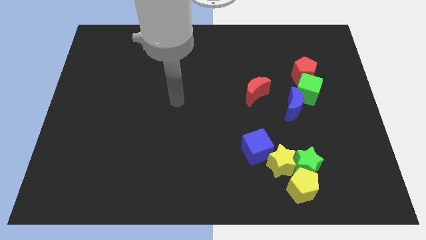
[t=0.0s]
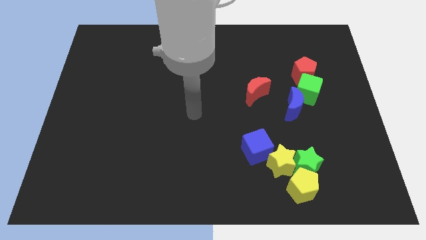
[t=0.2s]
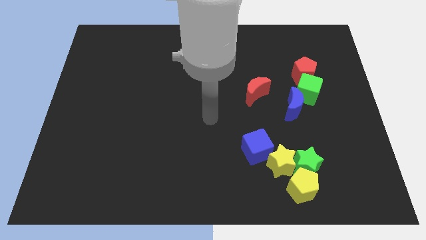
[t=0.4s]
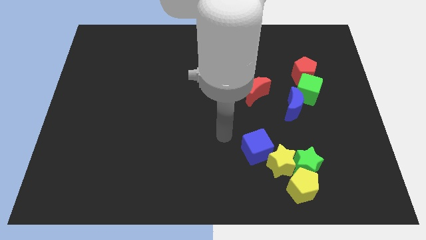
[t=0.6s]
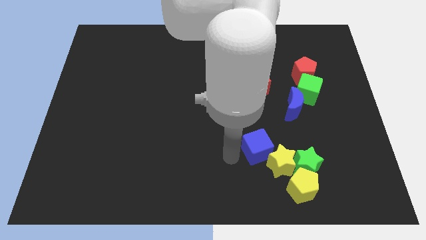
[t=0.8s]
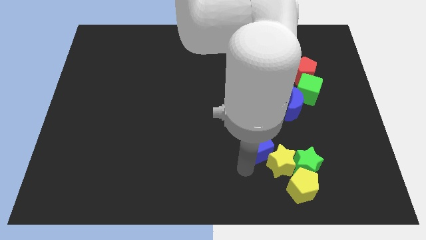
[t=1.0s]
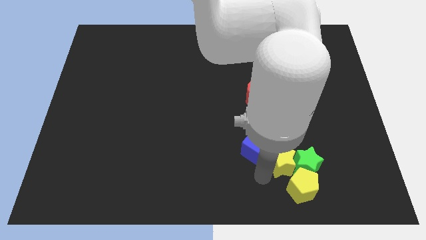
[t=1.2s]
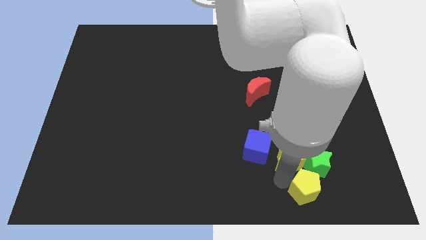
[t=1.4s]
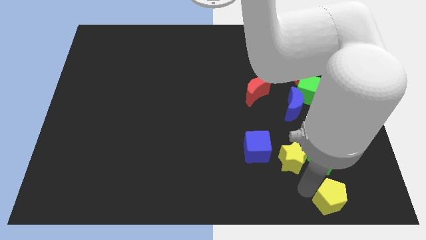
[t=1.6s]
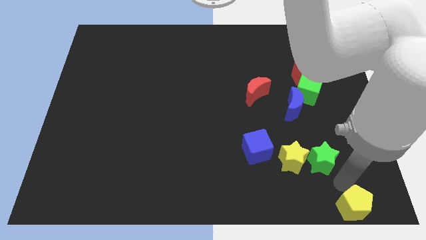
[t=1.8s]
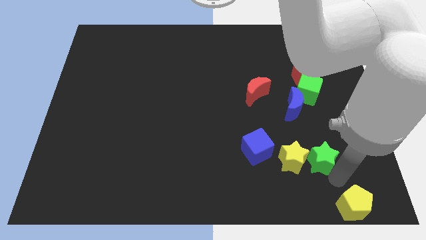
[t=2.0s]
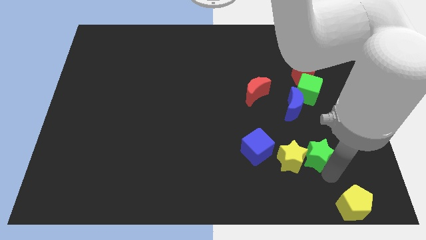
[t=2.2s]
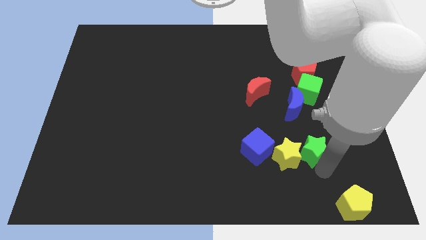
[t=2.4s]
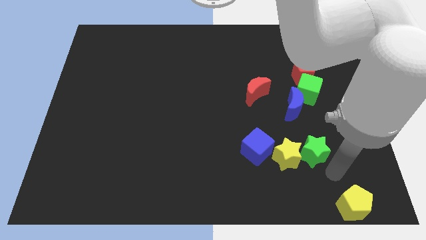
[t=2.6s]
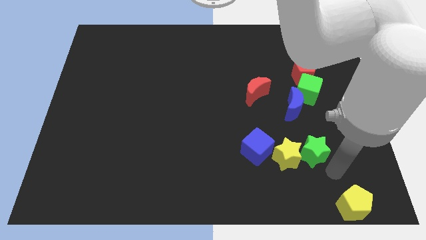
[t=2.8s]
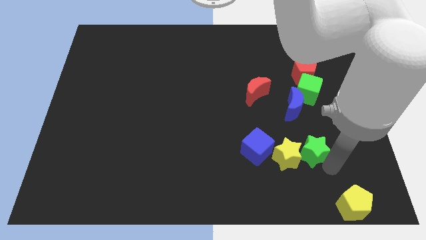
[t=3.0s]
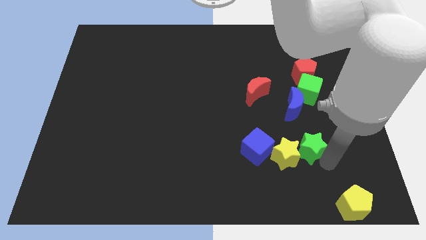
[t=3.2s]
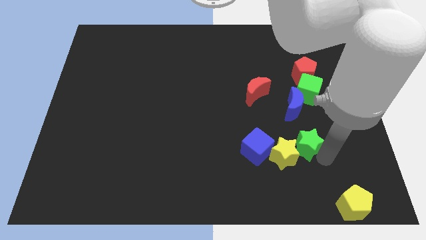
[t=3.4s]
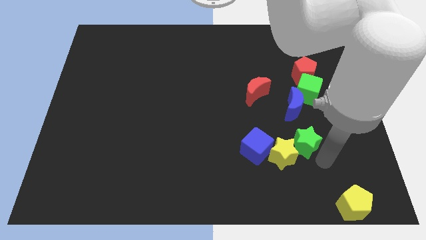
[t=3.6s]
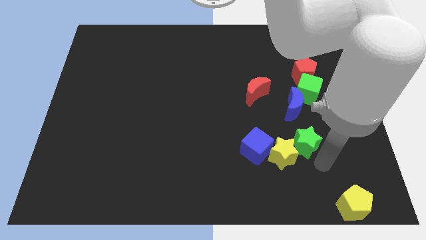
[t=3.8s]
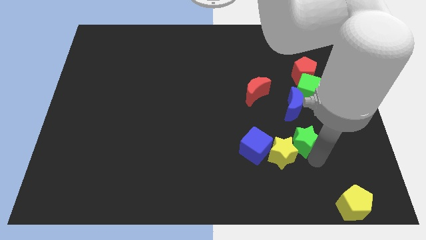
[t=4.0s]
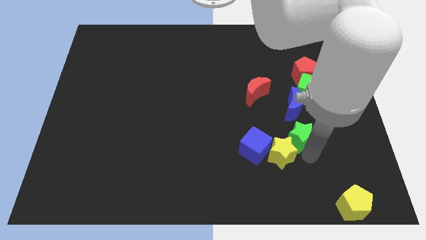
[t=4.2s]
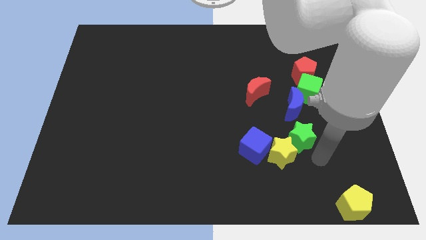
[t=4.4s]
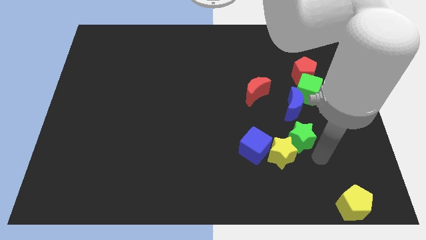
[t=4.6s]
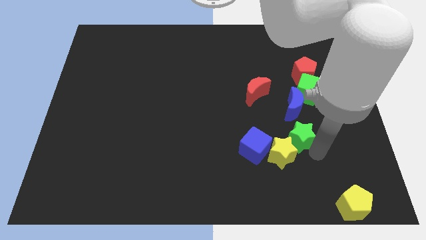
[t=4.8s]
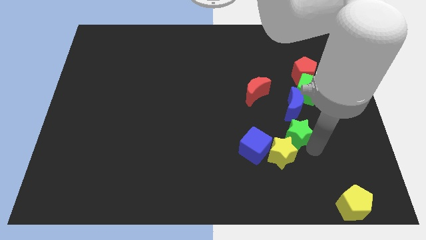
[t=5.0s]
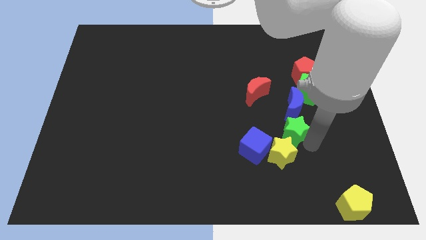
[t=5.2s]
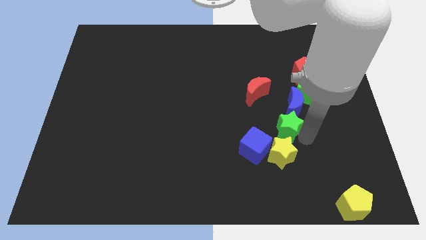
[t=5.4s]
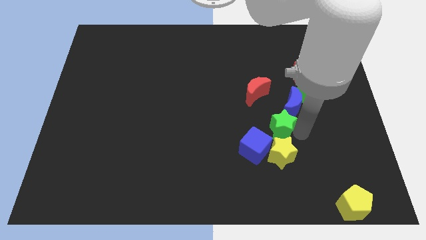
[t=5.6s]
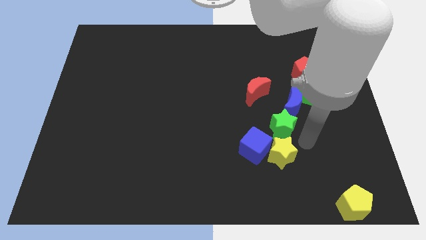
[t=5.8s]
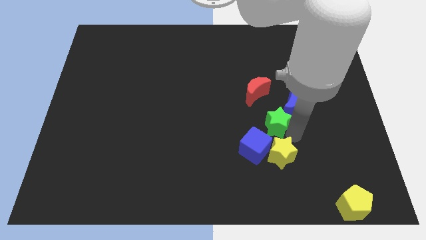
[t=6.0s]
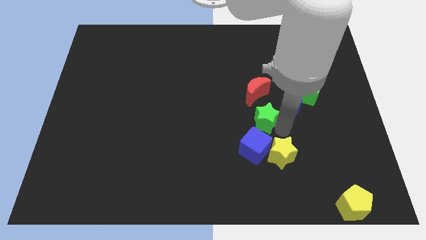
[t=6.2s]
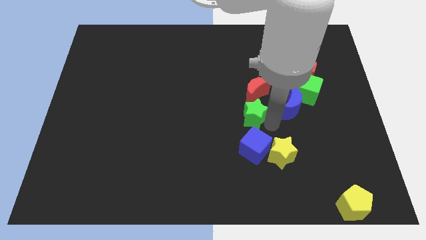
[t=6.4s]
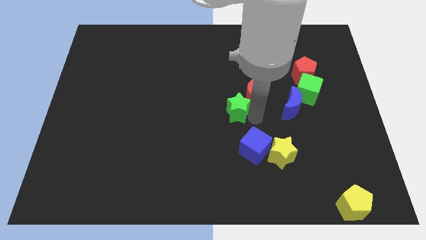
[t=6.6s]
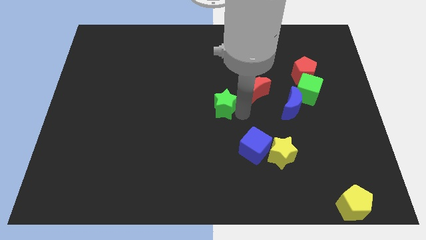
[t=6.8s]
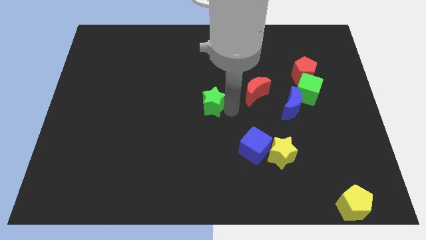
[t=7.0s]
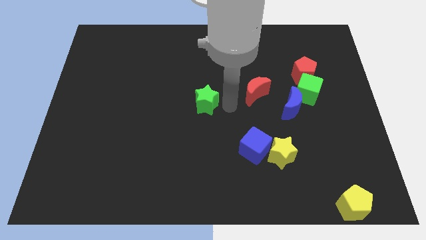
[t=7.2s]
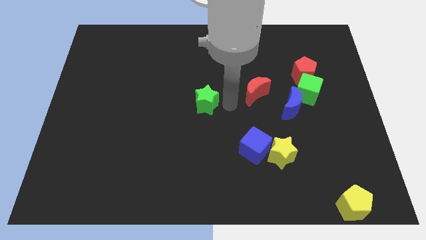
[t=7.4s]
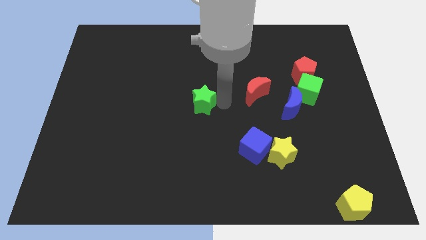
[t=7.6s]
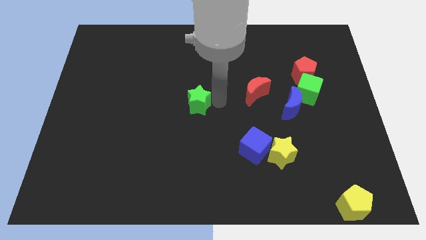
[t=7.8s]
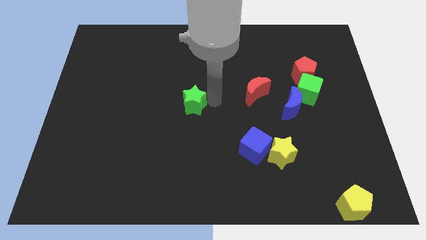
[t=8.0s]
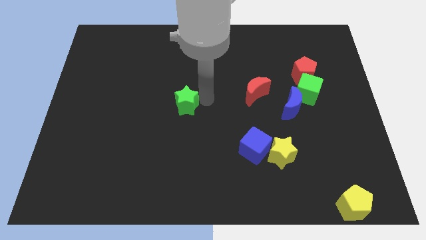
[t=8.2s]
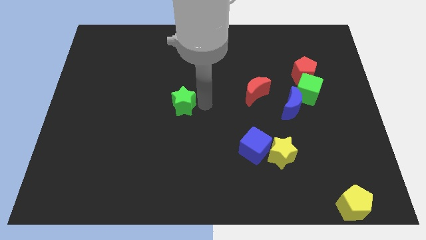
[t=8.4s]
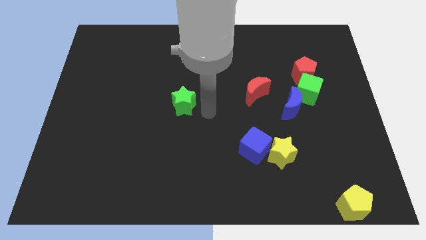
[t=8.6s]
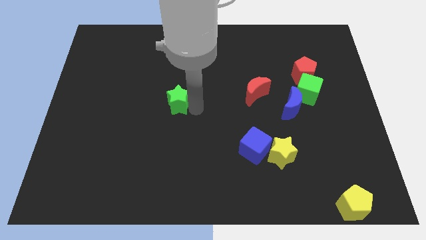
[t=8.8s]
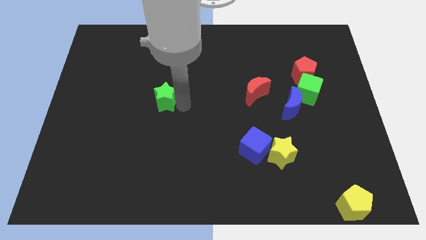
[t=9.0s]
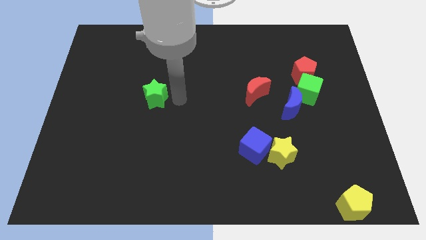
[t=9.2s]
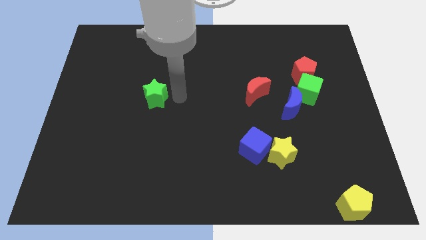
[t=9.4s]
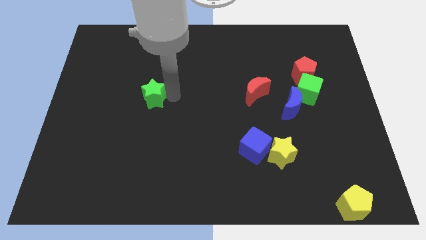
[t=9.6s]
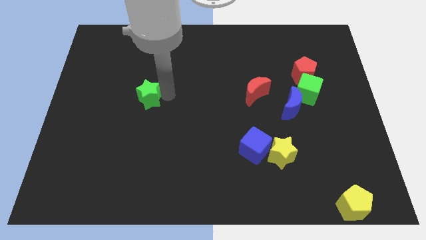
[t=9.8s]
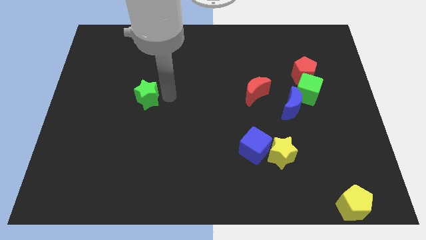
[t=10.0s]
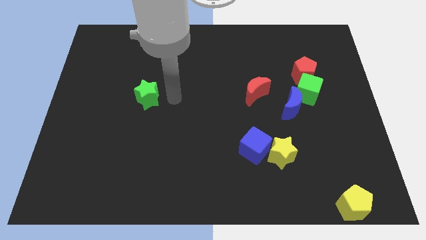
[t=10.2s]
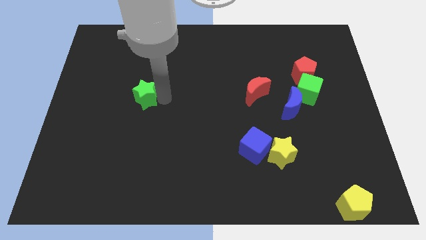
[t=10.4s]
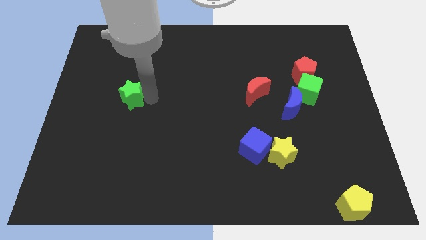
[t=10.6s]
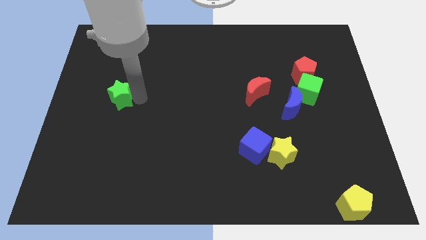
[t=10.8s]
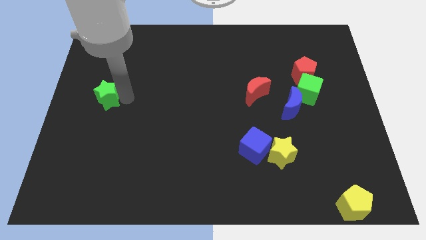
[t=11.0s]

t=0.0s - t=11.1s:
move the green star to the left side of the board

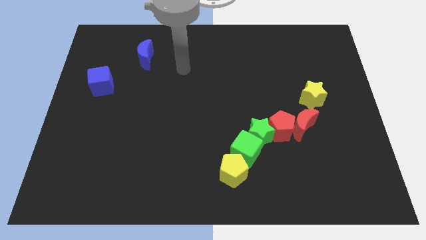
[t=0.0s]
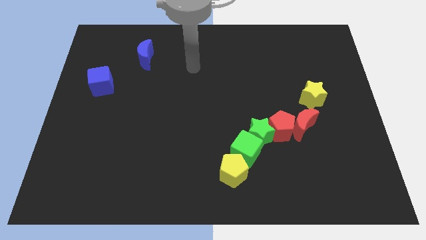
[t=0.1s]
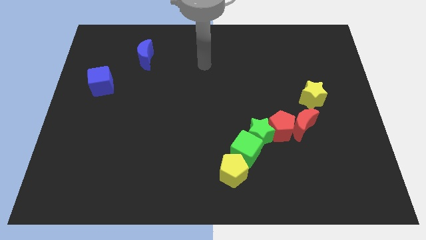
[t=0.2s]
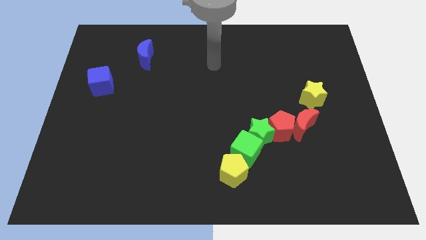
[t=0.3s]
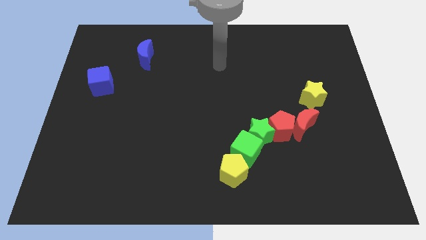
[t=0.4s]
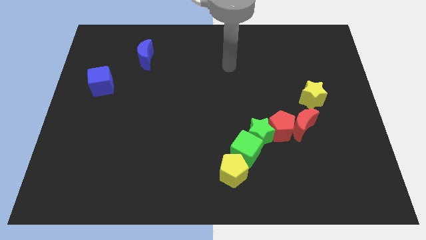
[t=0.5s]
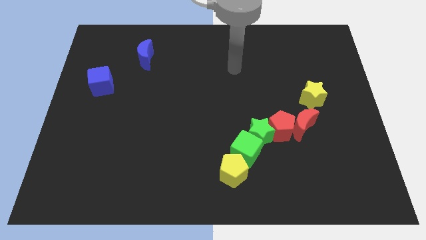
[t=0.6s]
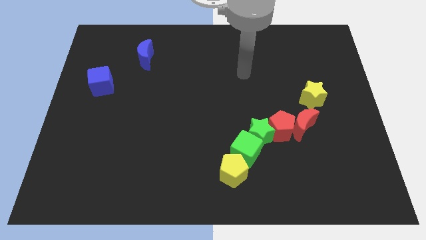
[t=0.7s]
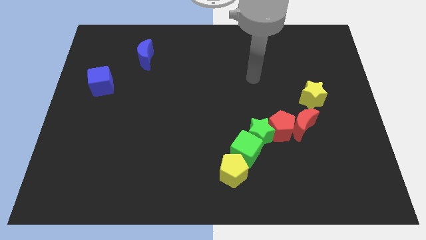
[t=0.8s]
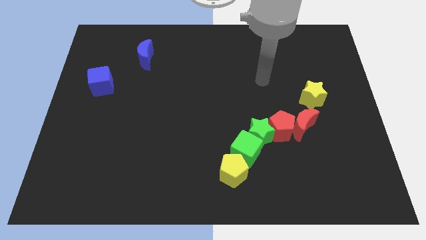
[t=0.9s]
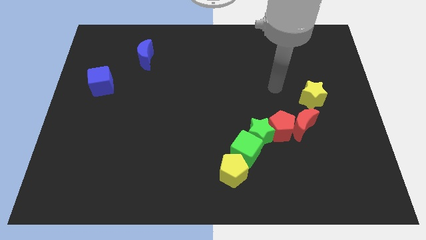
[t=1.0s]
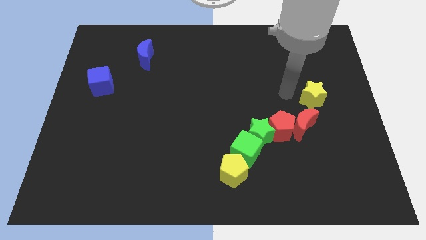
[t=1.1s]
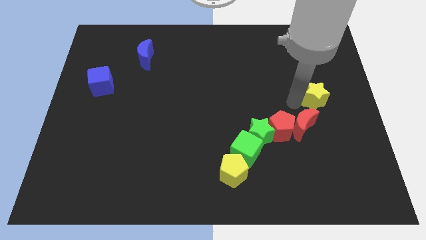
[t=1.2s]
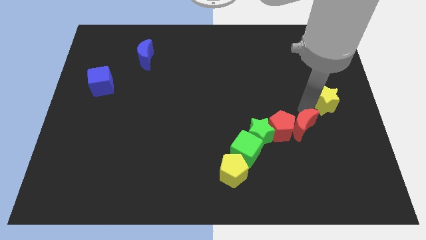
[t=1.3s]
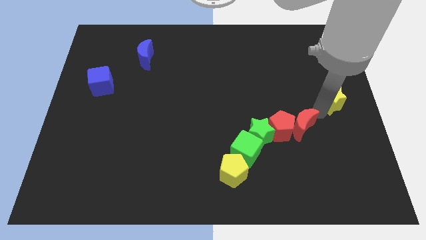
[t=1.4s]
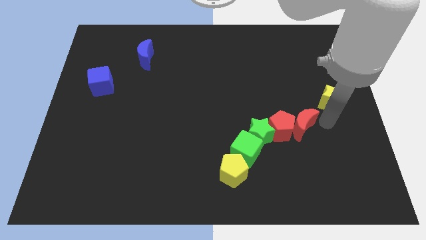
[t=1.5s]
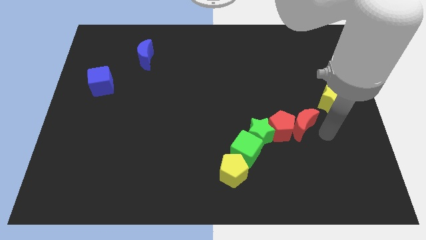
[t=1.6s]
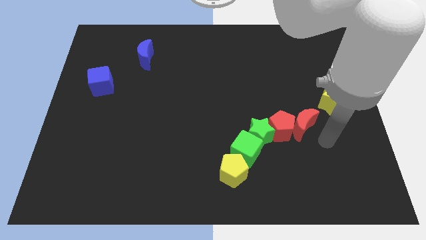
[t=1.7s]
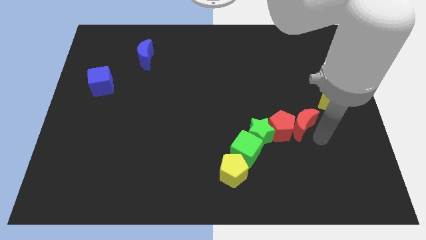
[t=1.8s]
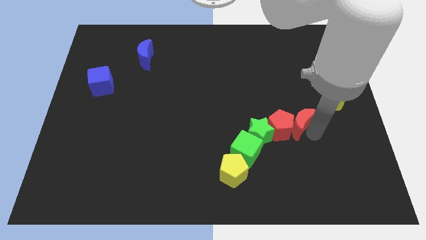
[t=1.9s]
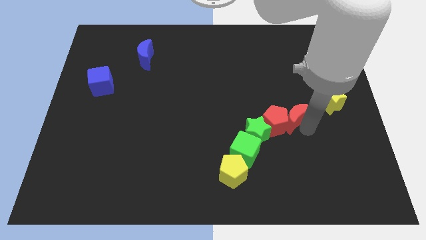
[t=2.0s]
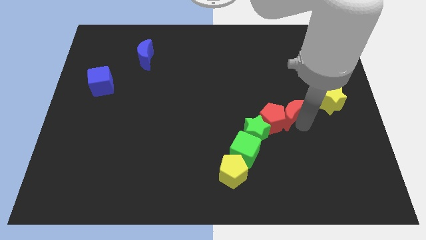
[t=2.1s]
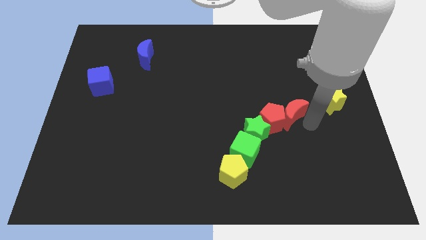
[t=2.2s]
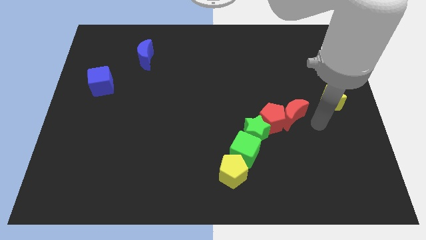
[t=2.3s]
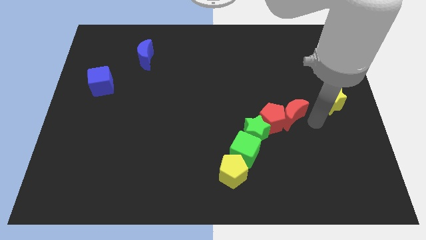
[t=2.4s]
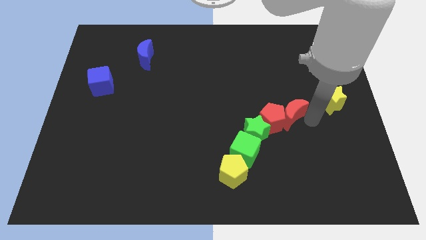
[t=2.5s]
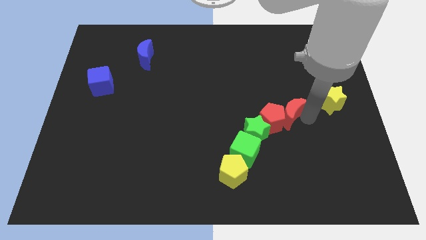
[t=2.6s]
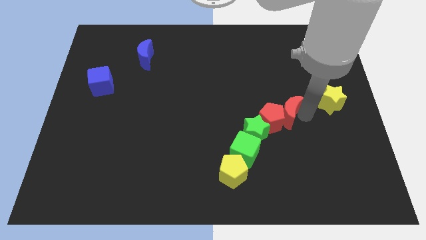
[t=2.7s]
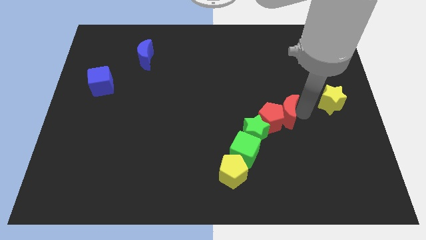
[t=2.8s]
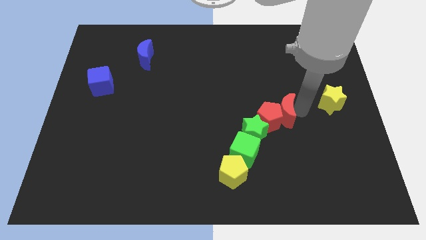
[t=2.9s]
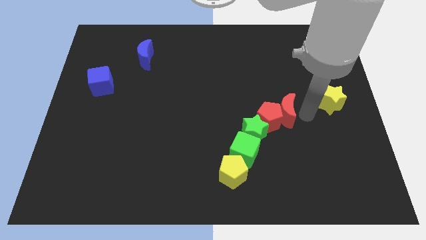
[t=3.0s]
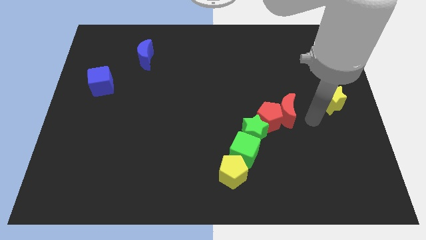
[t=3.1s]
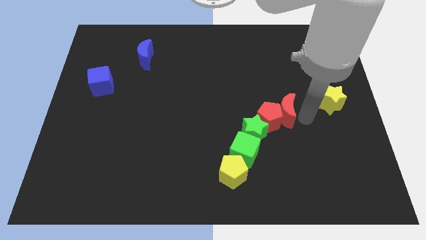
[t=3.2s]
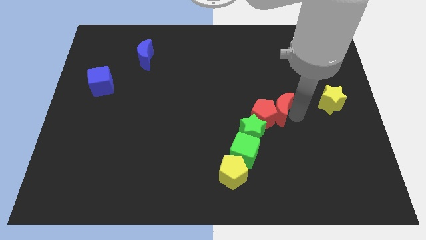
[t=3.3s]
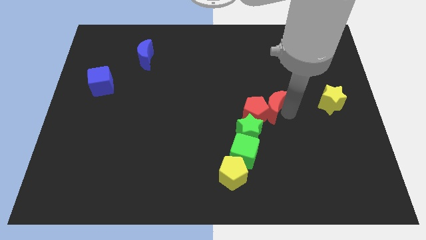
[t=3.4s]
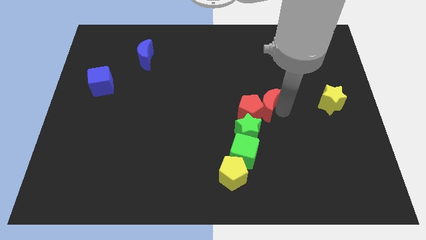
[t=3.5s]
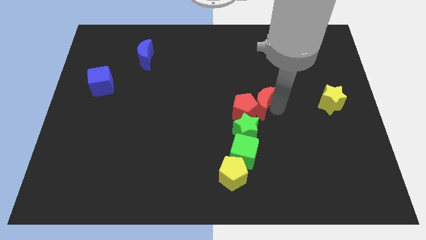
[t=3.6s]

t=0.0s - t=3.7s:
put the red moon to the middle of the board
